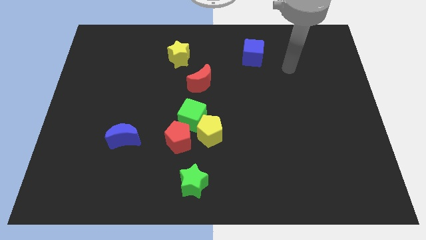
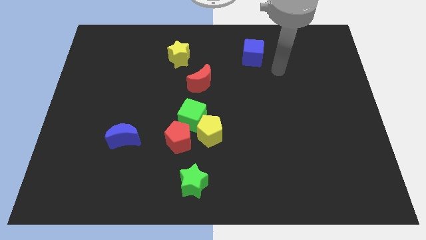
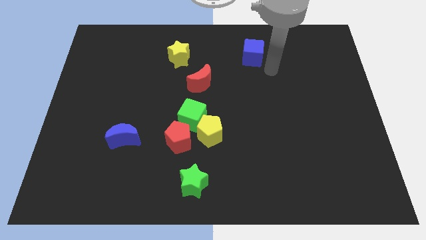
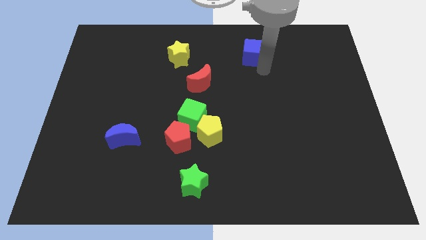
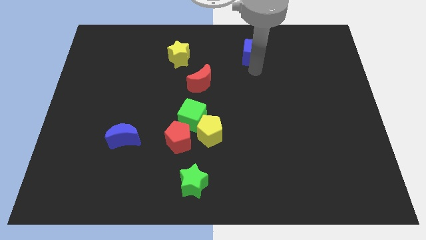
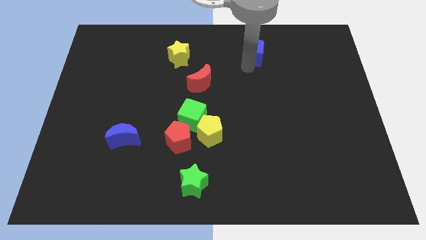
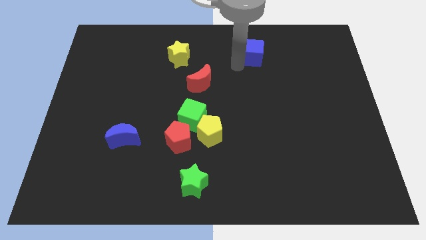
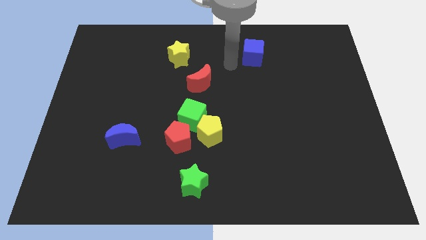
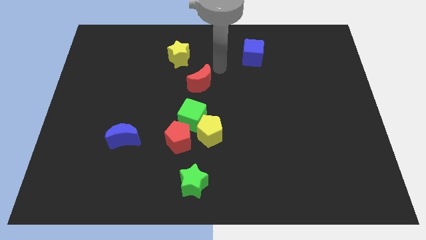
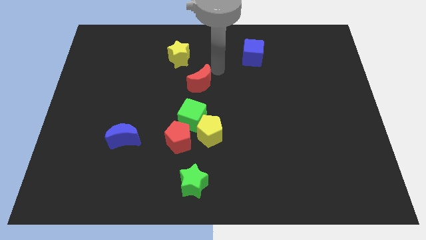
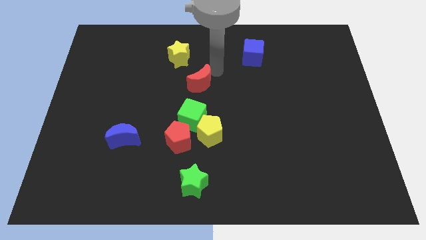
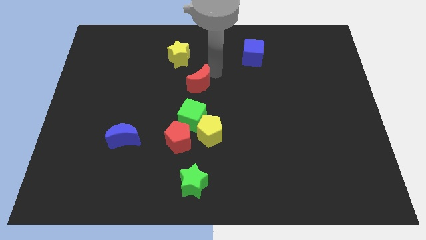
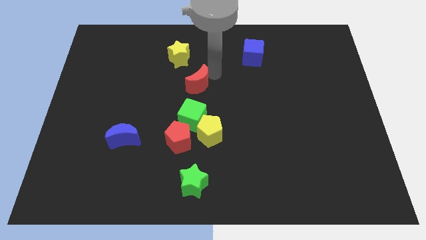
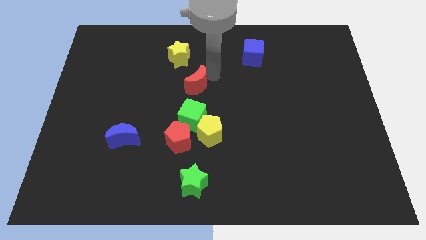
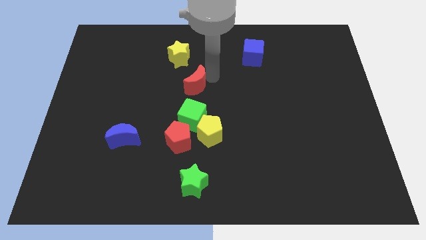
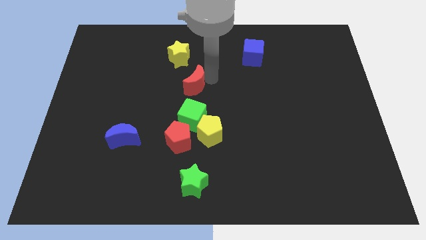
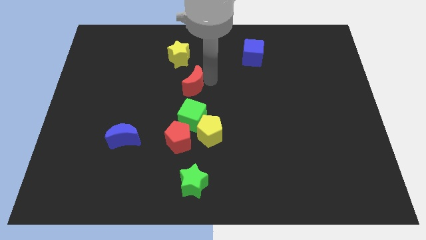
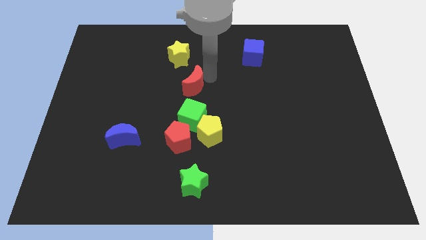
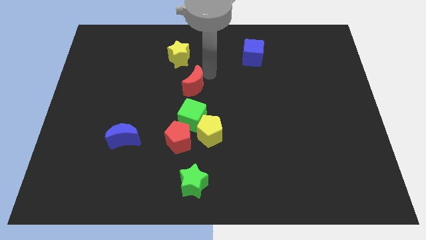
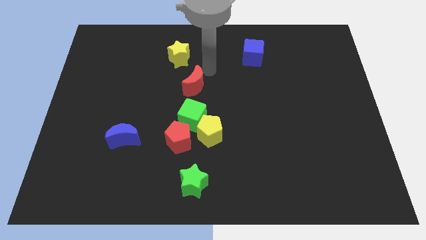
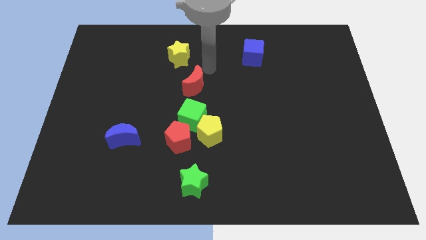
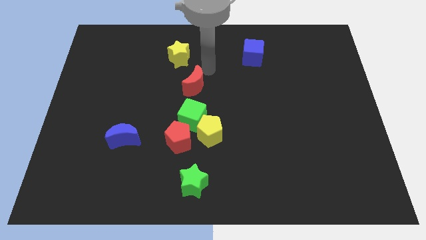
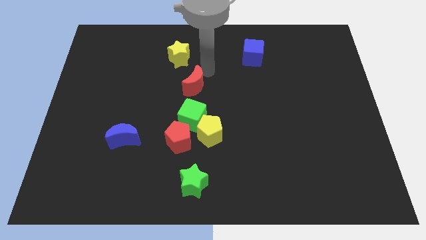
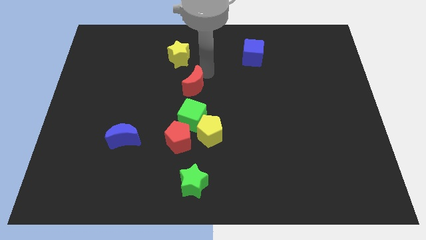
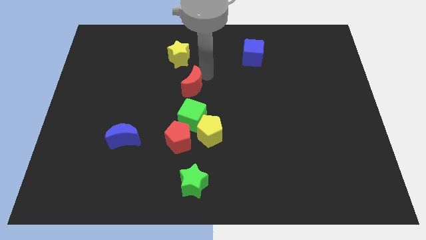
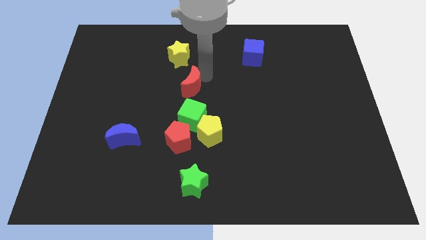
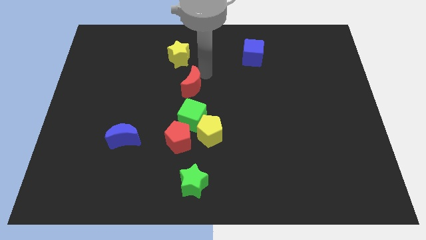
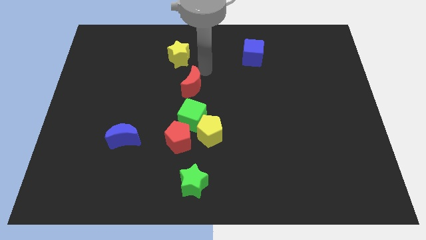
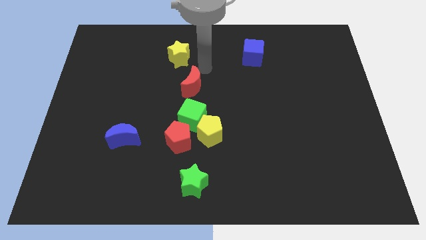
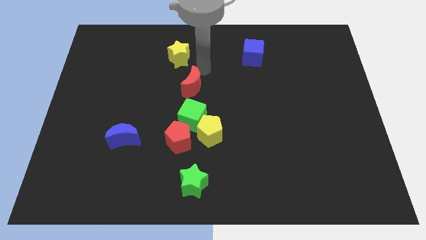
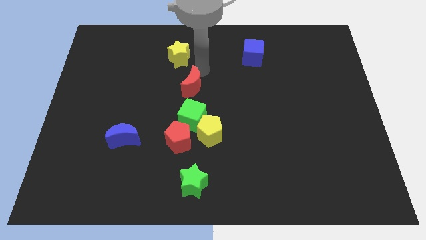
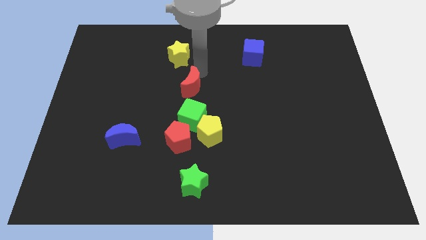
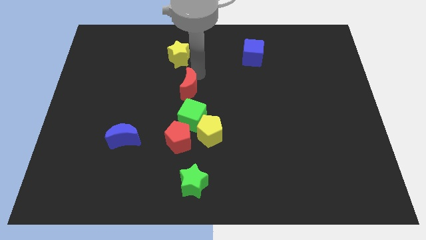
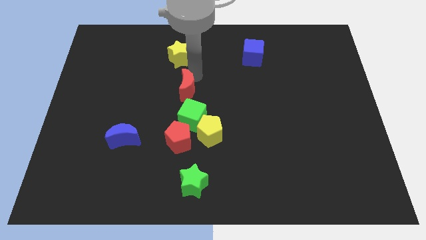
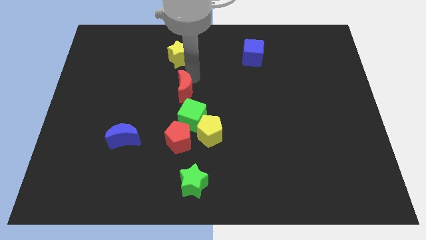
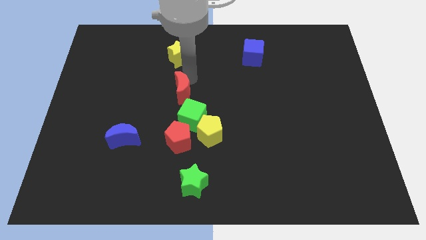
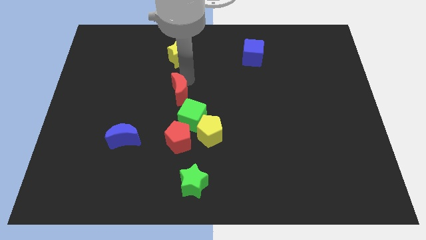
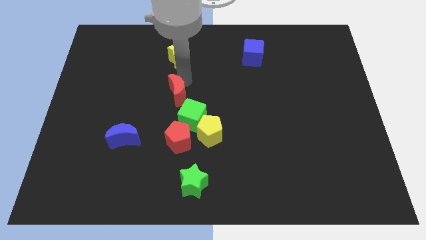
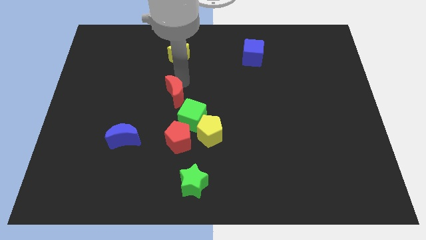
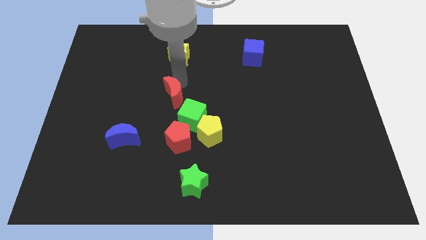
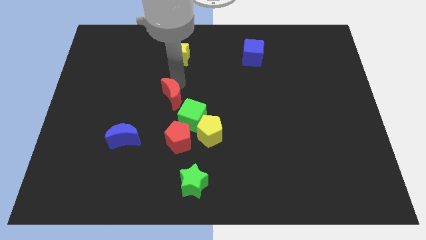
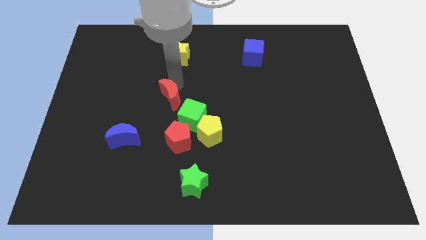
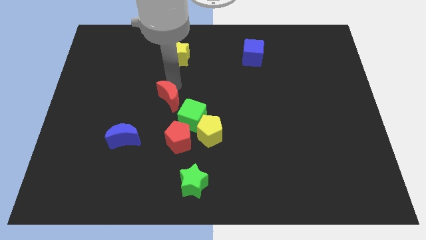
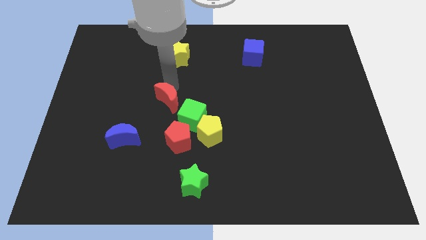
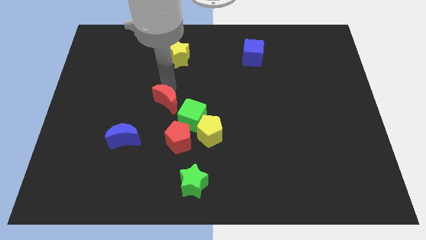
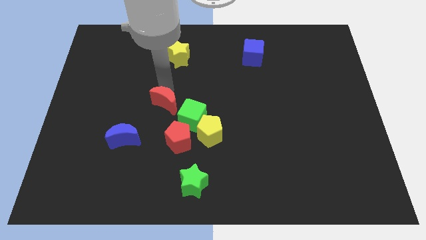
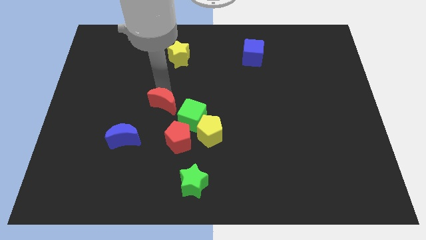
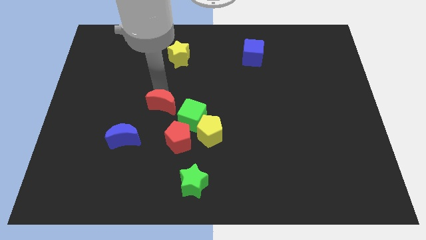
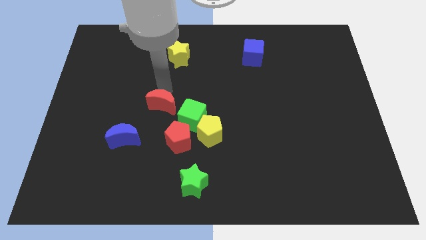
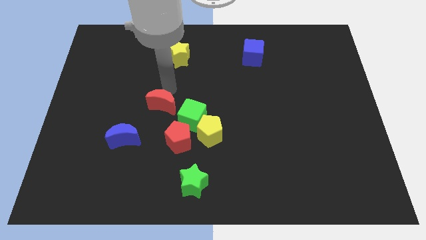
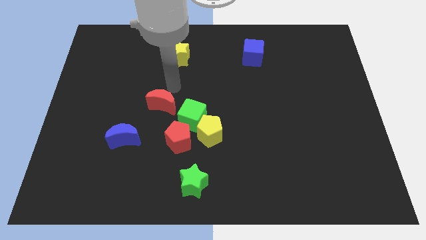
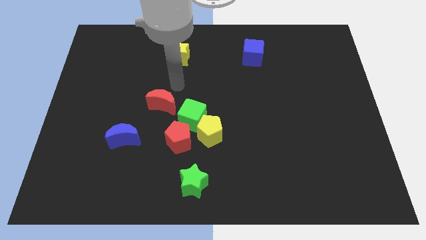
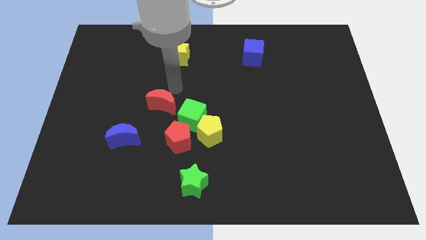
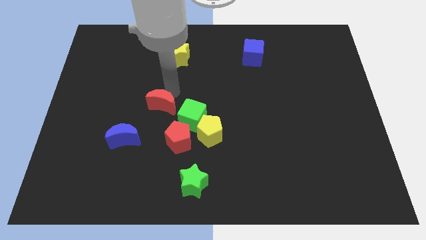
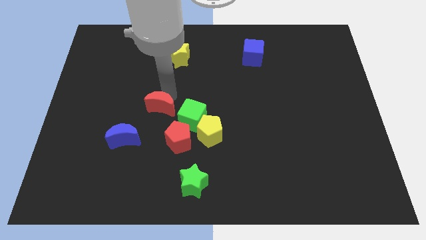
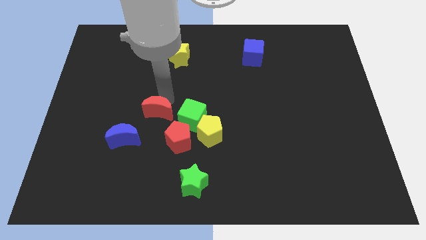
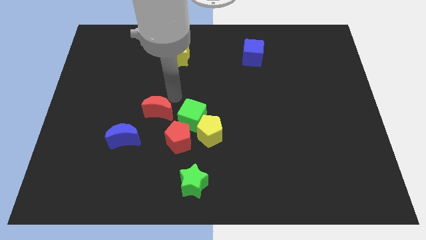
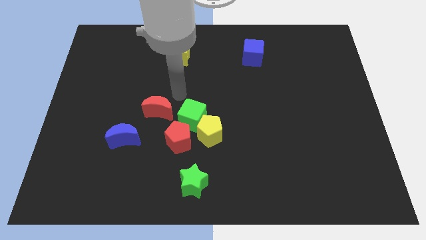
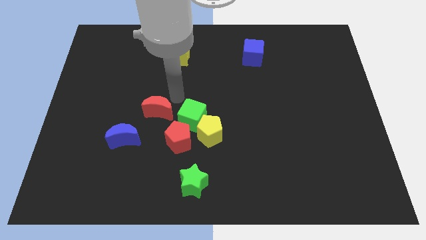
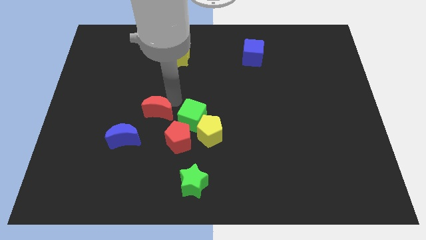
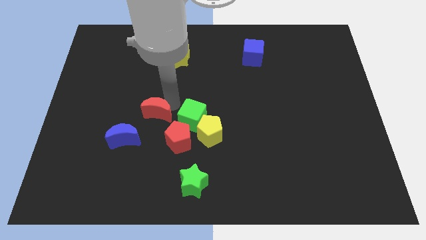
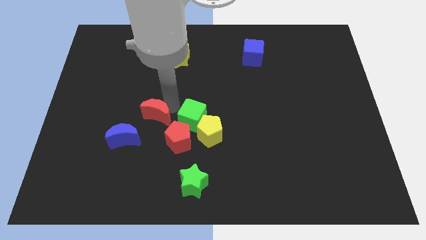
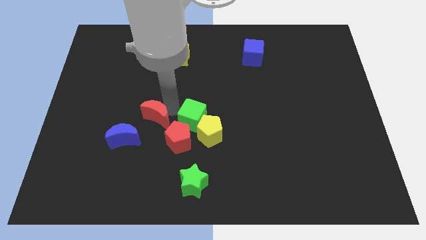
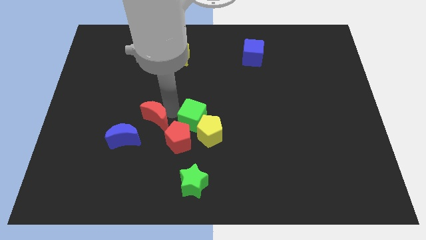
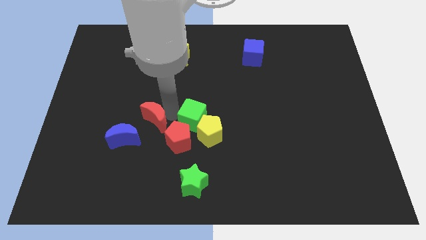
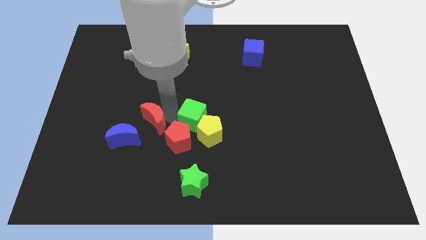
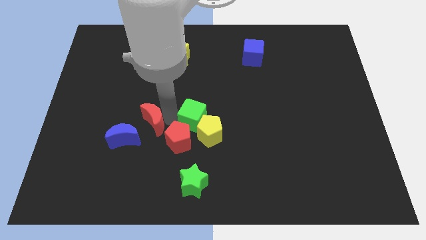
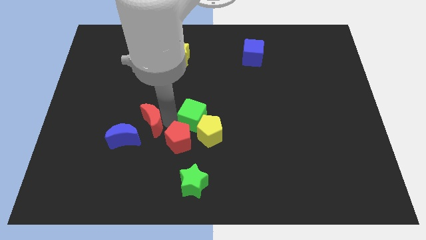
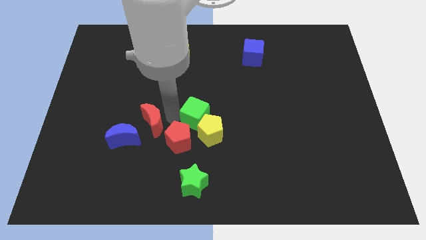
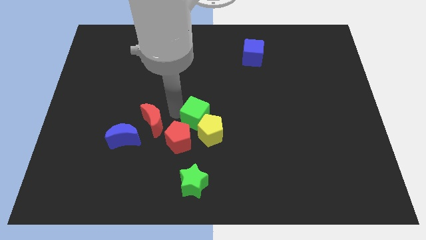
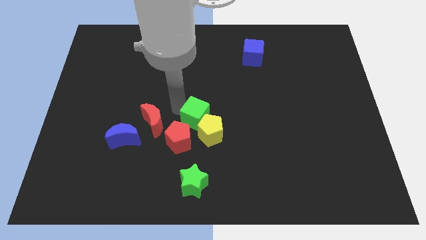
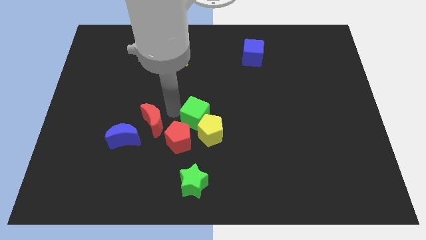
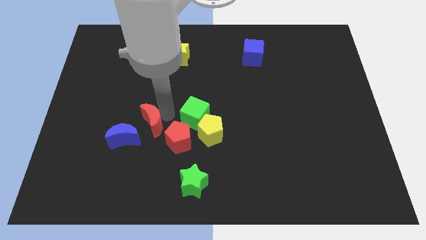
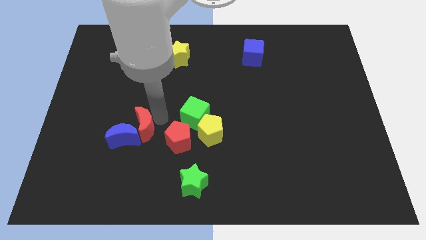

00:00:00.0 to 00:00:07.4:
move the red moon towards the blue moon
